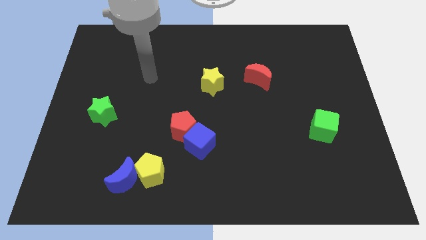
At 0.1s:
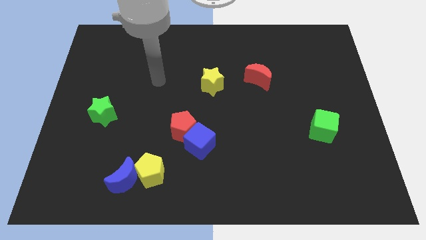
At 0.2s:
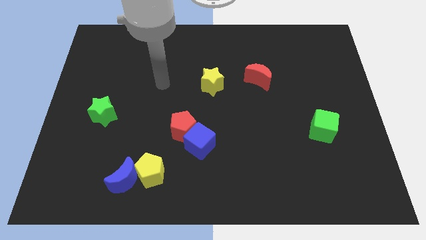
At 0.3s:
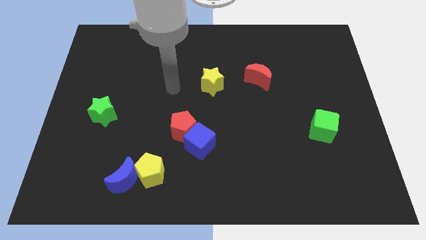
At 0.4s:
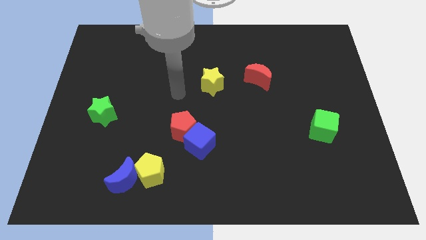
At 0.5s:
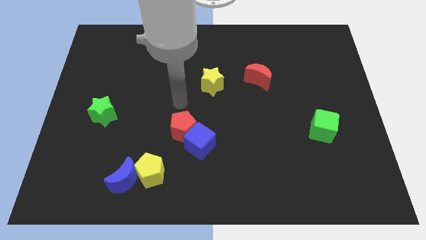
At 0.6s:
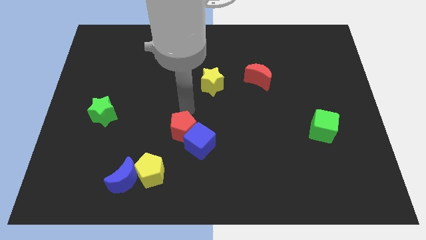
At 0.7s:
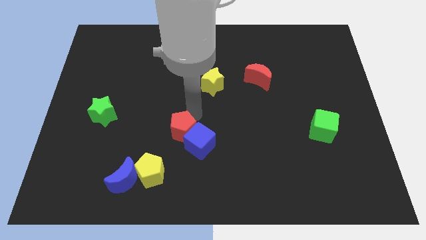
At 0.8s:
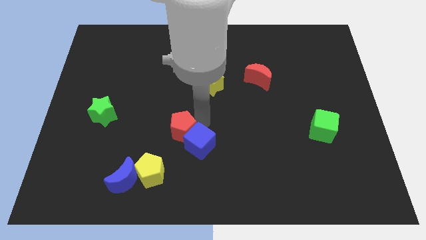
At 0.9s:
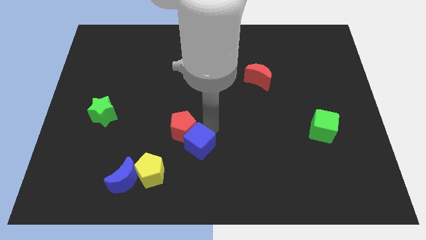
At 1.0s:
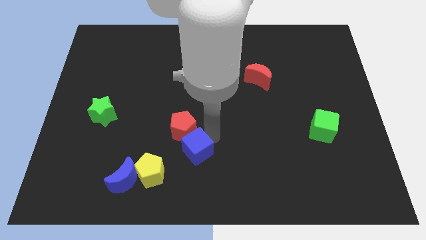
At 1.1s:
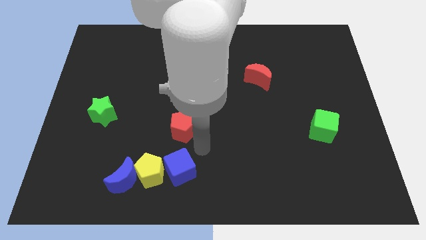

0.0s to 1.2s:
pull the red pentagon apart from the blue cube

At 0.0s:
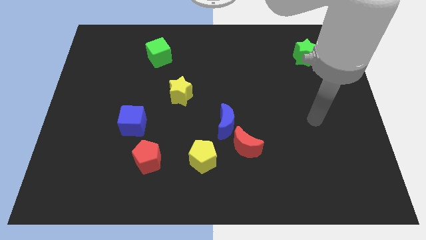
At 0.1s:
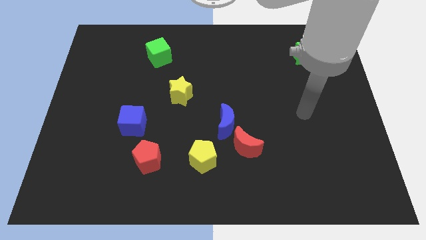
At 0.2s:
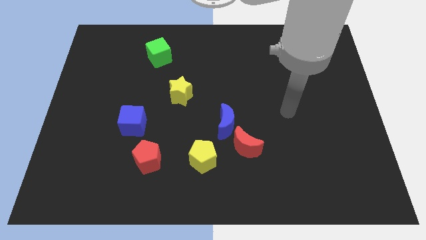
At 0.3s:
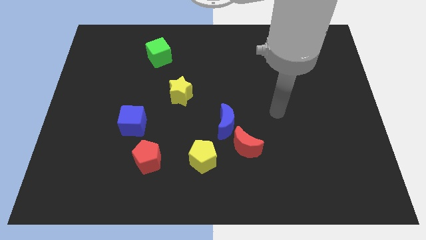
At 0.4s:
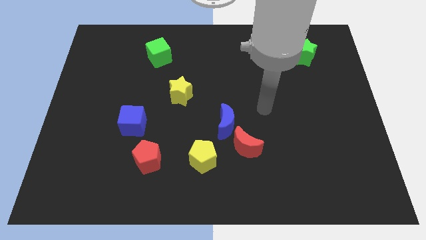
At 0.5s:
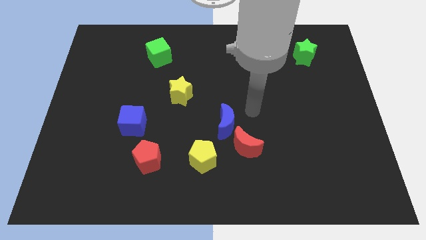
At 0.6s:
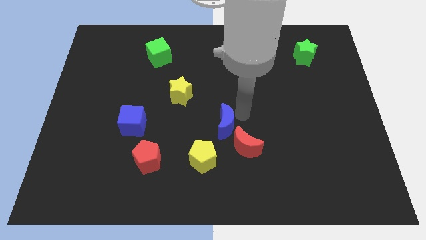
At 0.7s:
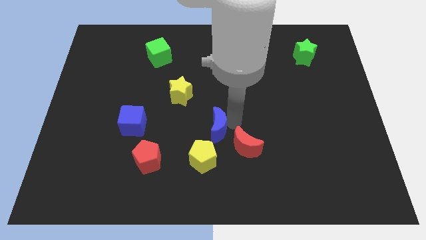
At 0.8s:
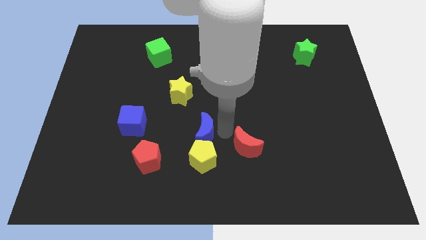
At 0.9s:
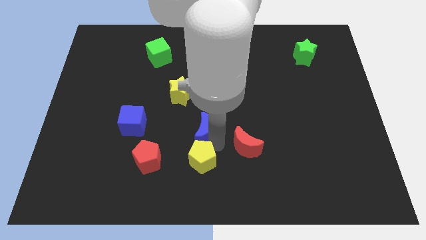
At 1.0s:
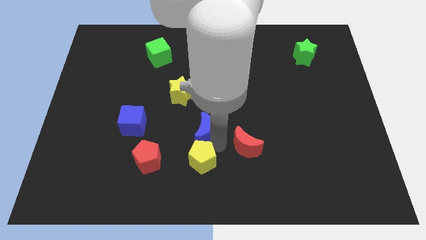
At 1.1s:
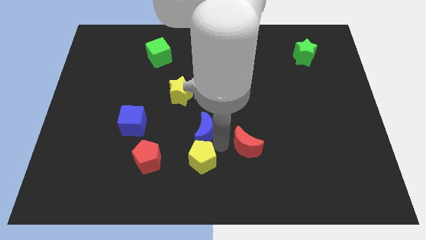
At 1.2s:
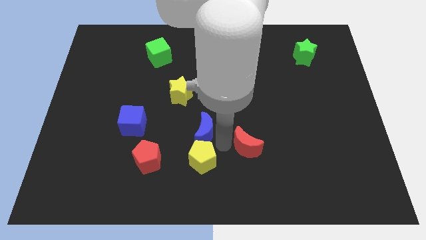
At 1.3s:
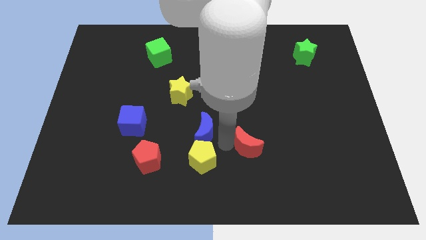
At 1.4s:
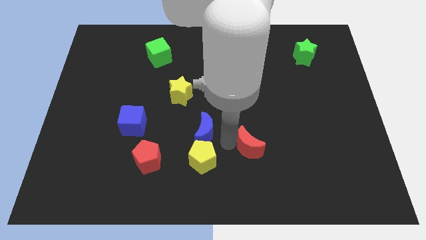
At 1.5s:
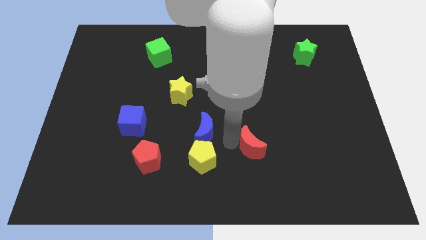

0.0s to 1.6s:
move the red moon away from the blue moon and yellow pentagon

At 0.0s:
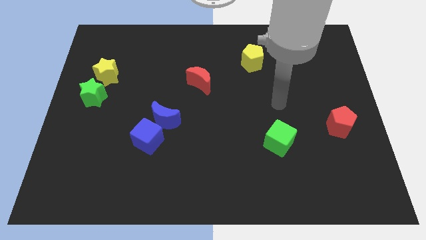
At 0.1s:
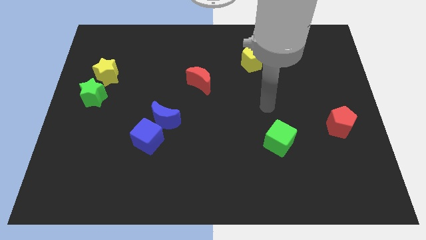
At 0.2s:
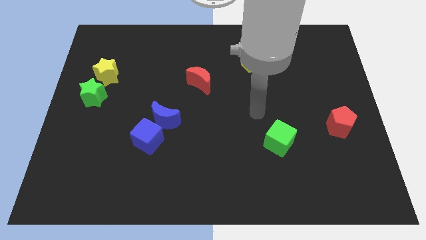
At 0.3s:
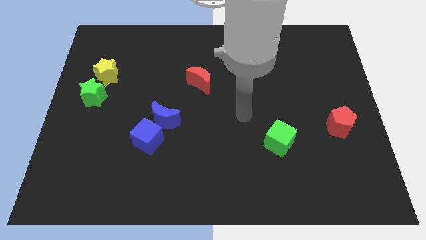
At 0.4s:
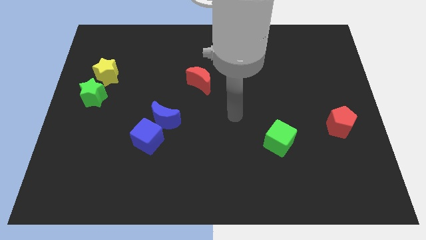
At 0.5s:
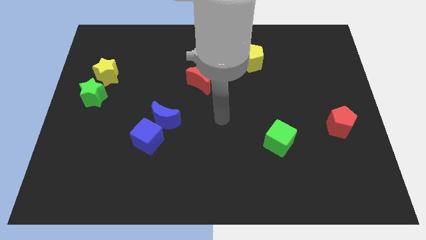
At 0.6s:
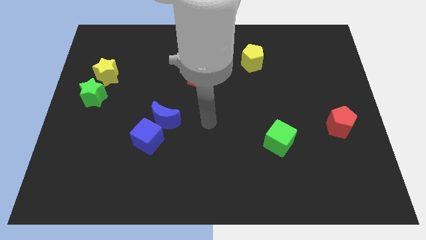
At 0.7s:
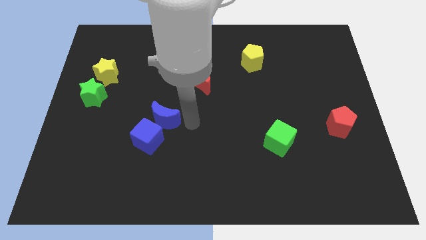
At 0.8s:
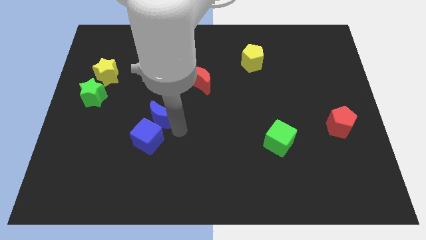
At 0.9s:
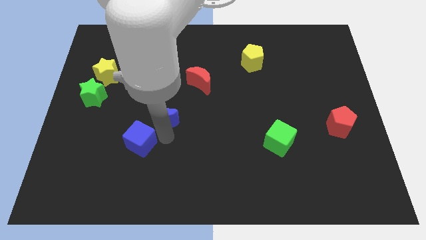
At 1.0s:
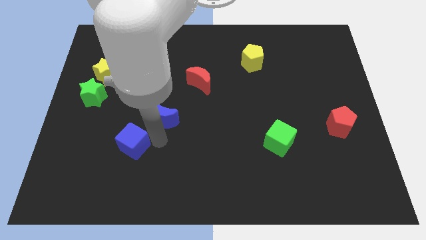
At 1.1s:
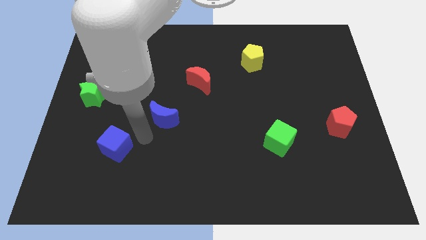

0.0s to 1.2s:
pull the blue moon apart from the blue cube

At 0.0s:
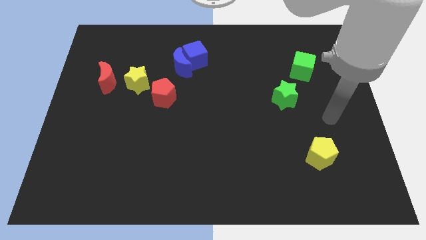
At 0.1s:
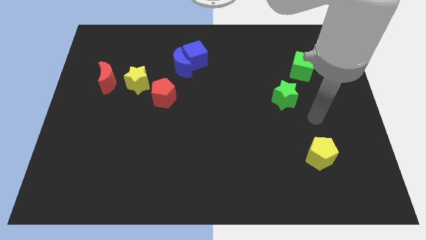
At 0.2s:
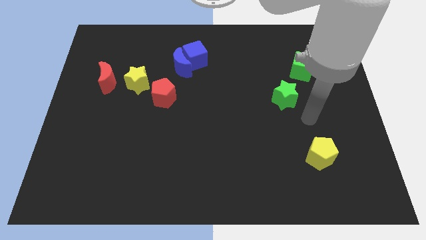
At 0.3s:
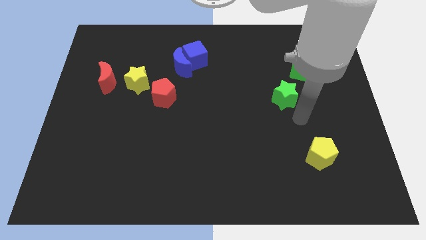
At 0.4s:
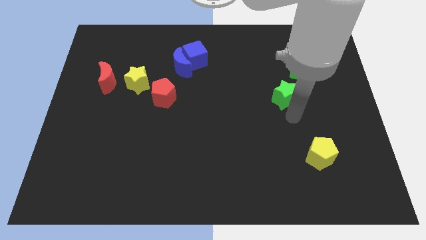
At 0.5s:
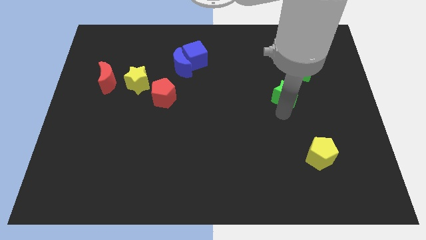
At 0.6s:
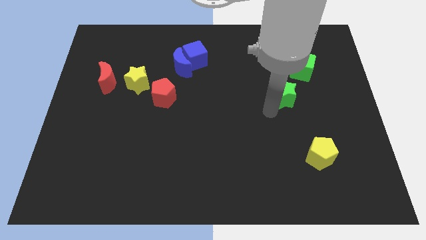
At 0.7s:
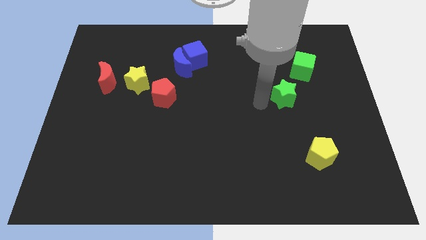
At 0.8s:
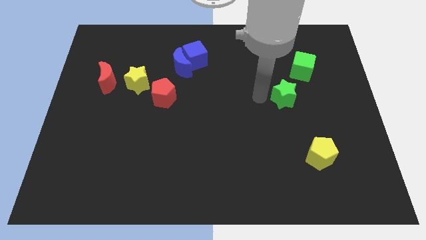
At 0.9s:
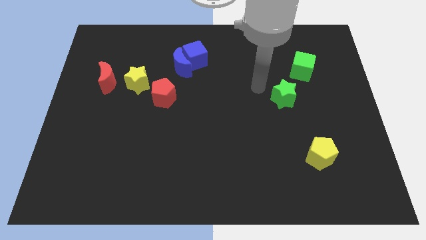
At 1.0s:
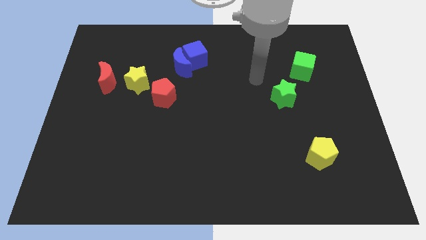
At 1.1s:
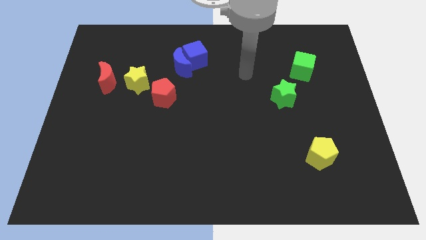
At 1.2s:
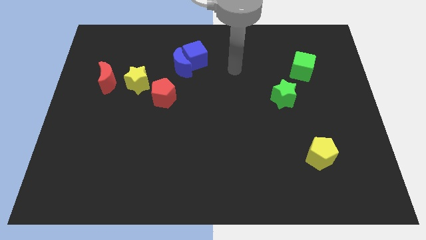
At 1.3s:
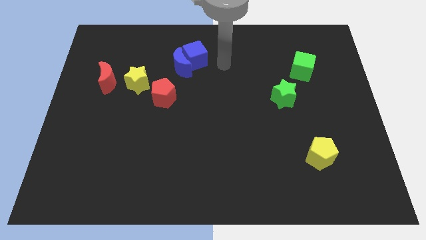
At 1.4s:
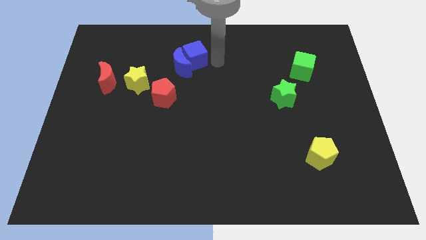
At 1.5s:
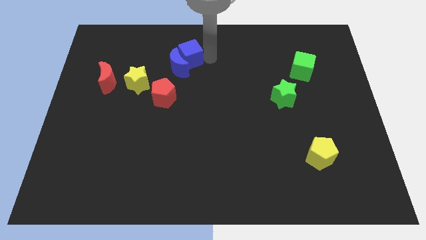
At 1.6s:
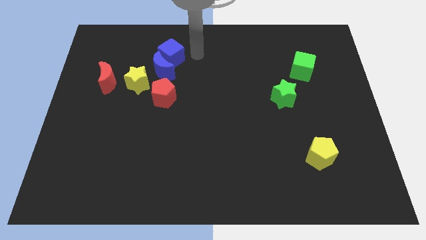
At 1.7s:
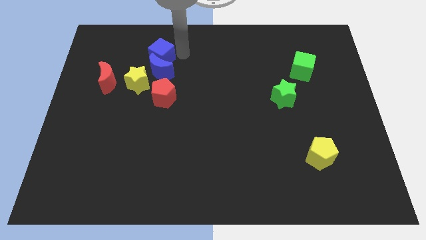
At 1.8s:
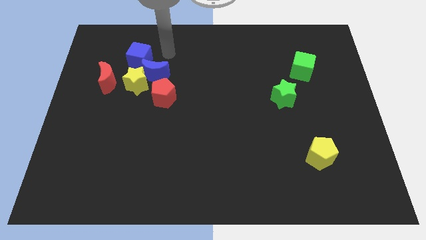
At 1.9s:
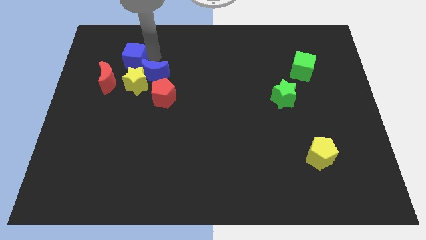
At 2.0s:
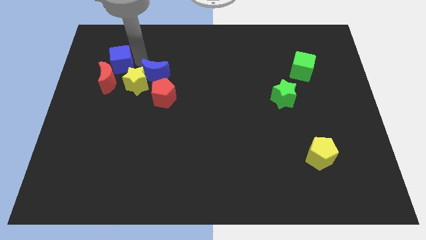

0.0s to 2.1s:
move the blue moon away from the blue cube

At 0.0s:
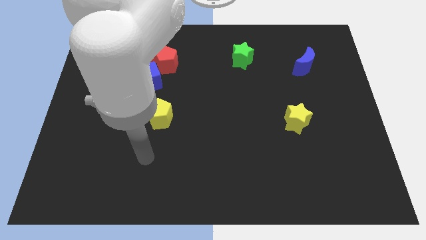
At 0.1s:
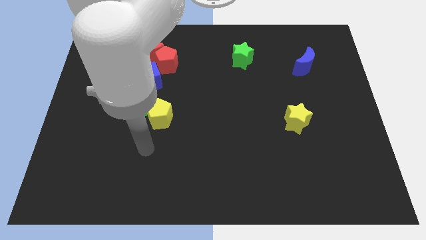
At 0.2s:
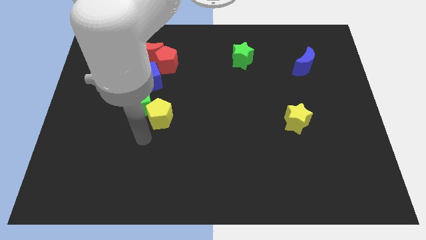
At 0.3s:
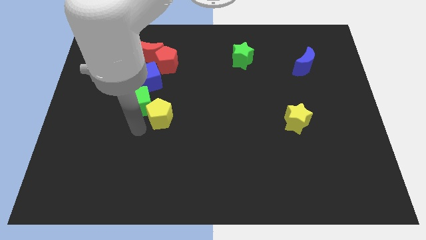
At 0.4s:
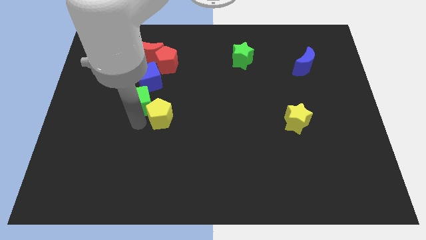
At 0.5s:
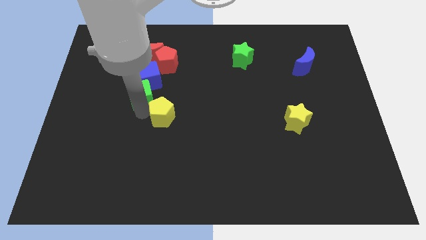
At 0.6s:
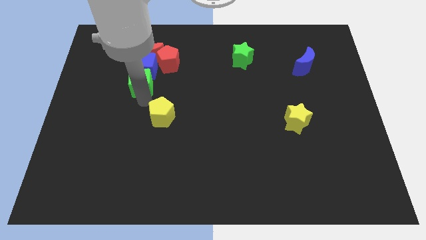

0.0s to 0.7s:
move the yellow pentagon away from the green cube

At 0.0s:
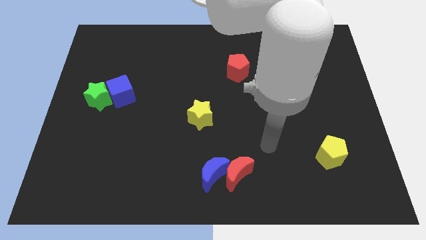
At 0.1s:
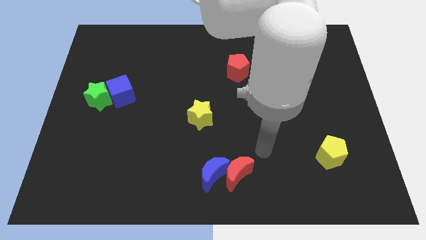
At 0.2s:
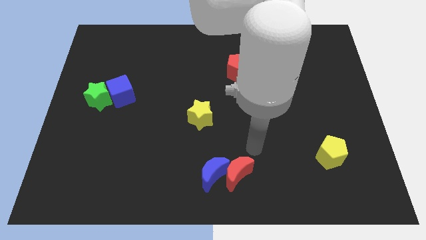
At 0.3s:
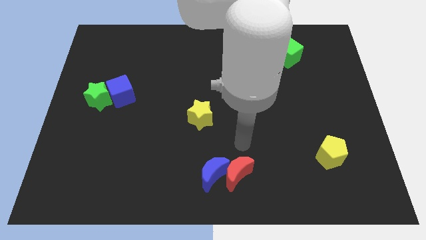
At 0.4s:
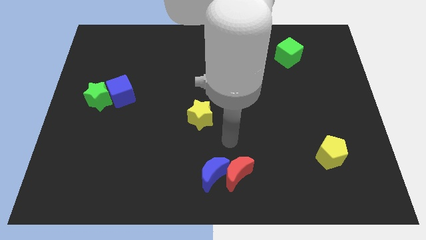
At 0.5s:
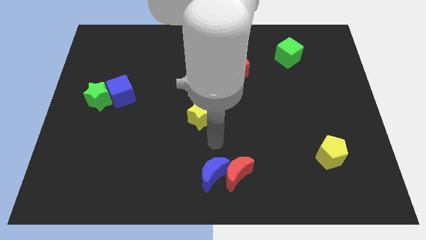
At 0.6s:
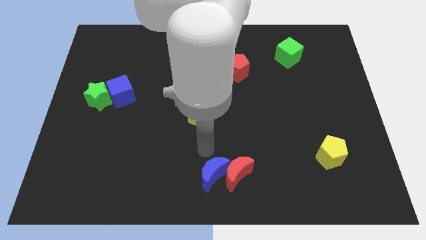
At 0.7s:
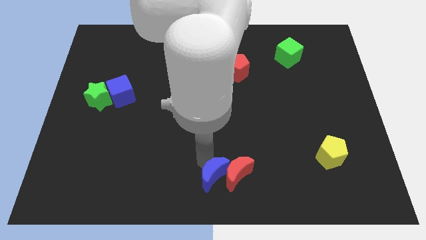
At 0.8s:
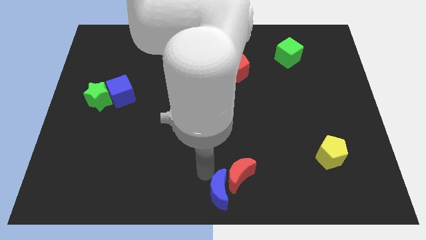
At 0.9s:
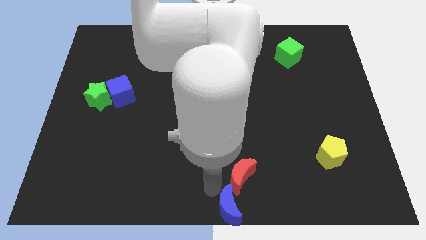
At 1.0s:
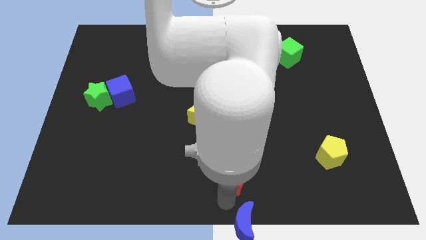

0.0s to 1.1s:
pull the red moon apart from the blue moon

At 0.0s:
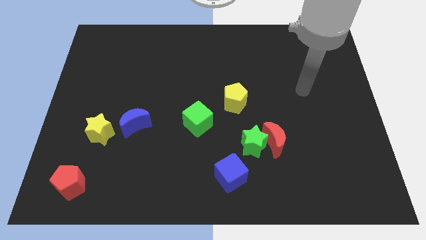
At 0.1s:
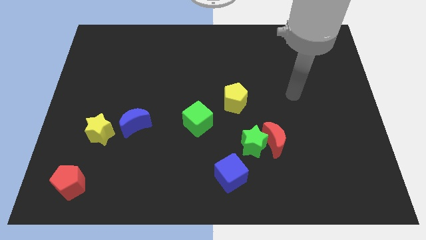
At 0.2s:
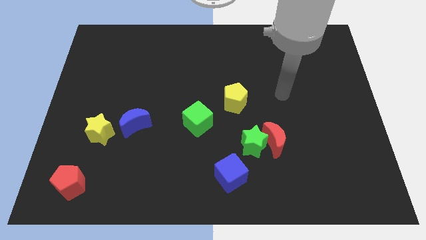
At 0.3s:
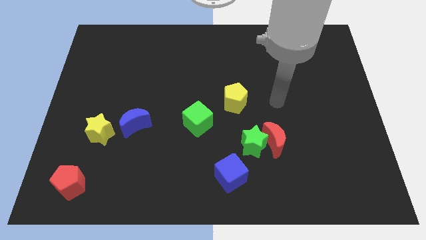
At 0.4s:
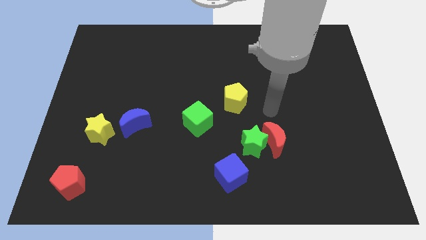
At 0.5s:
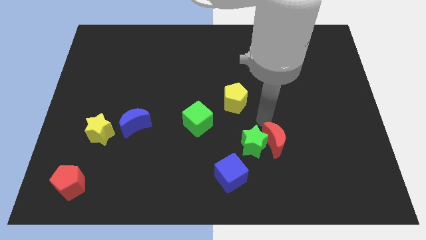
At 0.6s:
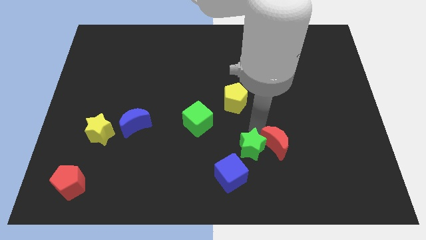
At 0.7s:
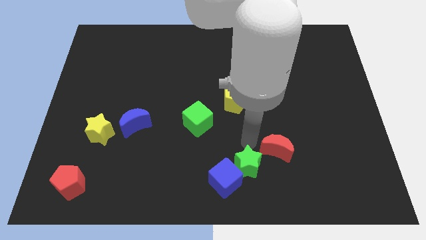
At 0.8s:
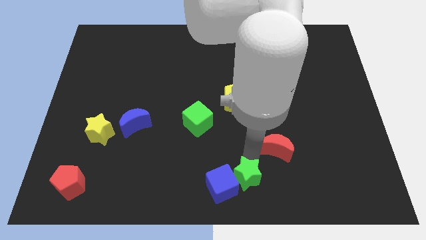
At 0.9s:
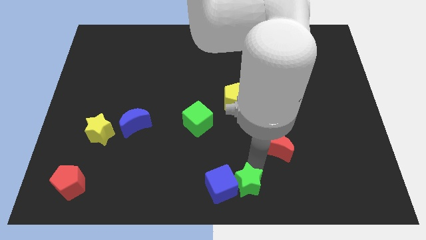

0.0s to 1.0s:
separate the red moon from the green star

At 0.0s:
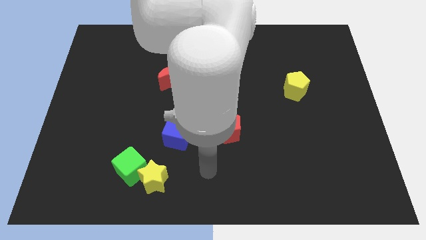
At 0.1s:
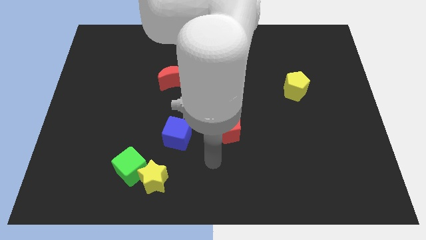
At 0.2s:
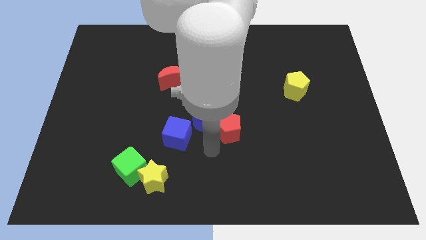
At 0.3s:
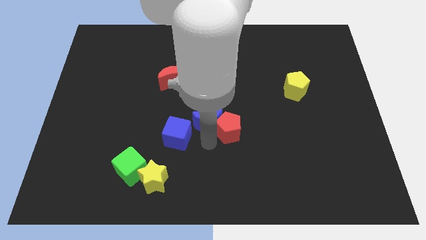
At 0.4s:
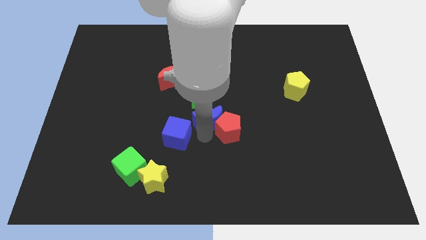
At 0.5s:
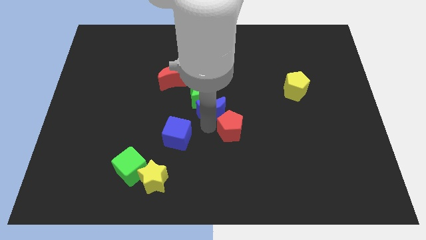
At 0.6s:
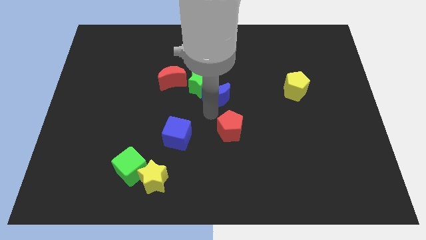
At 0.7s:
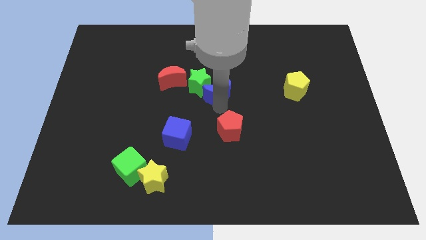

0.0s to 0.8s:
pull the red pentagon apart from the blue moon
